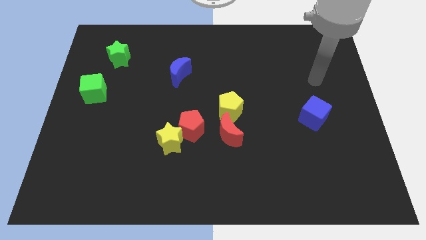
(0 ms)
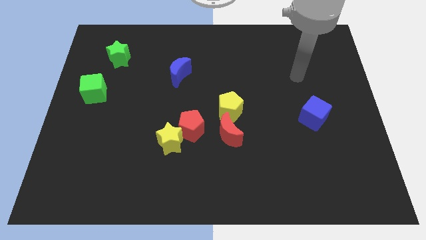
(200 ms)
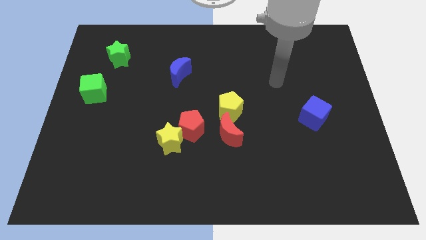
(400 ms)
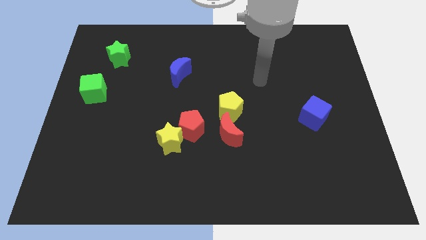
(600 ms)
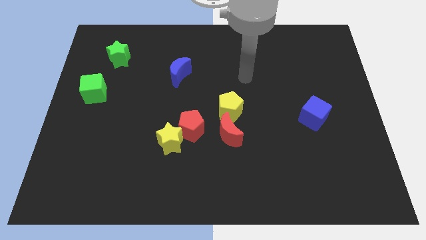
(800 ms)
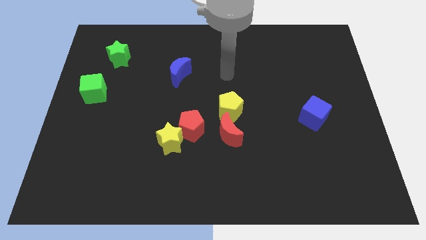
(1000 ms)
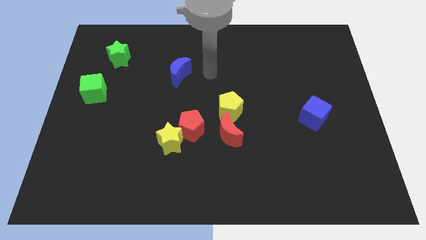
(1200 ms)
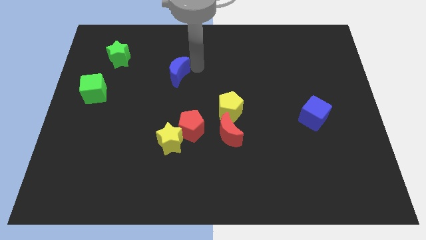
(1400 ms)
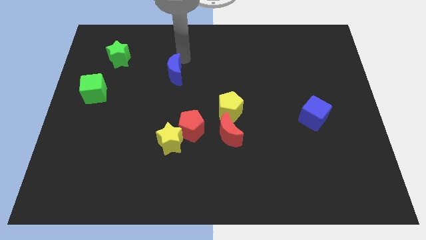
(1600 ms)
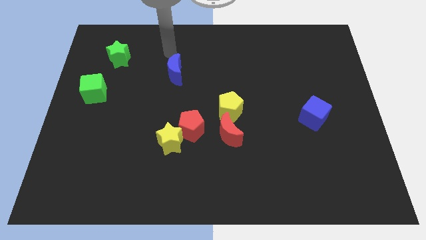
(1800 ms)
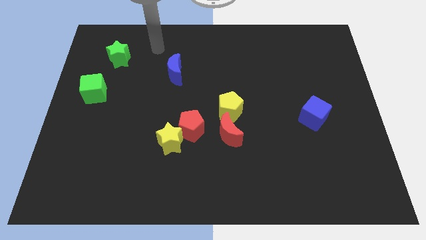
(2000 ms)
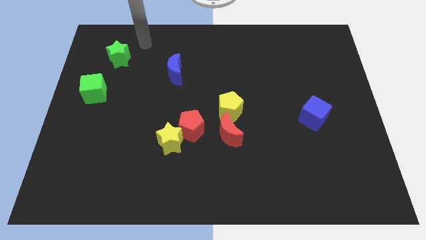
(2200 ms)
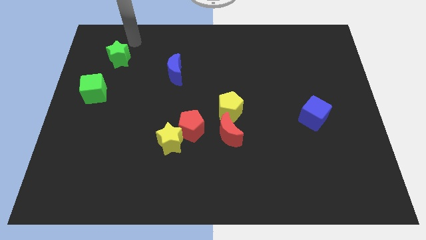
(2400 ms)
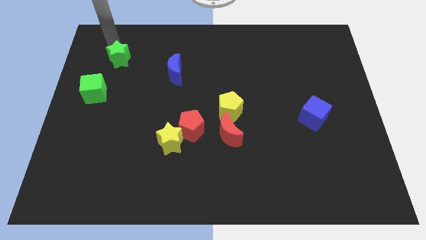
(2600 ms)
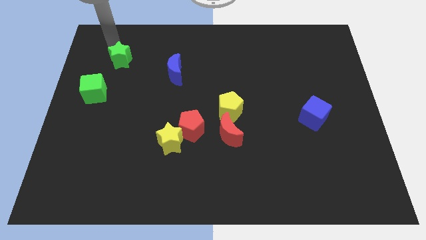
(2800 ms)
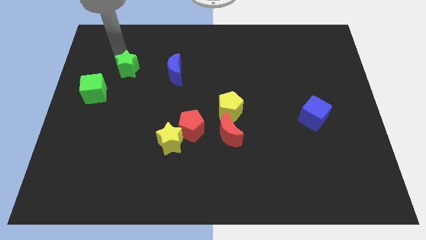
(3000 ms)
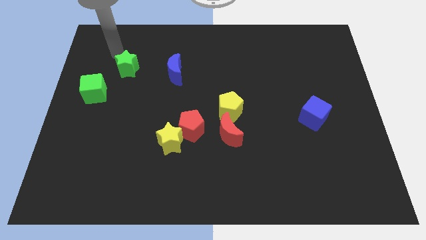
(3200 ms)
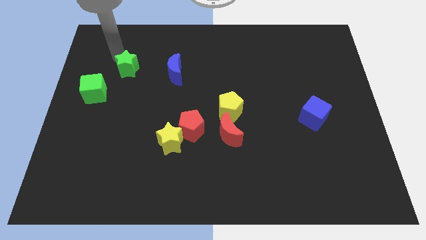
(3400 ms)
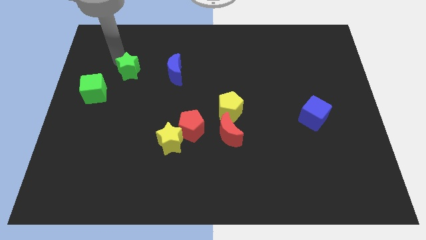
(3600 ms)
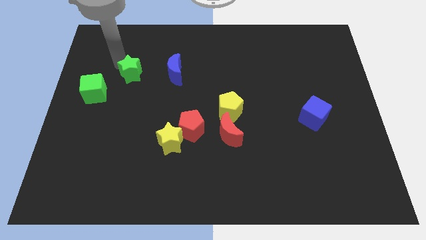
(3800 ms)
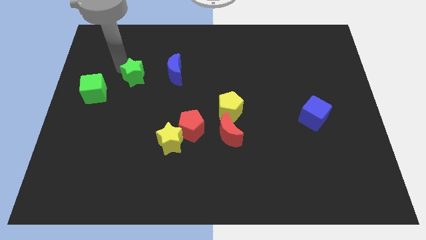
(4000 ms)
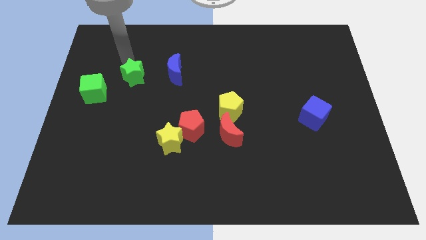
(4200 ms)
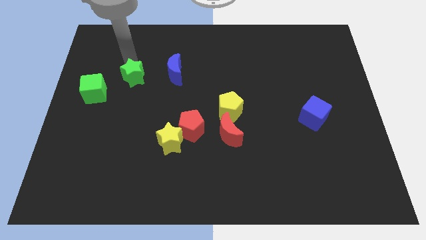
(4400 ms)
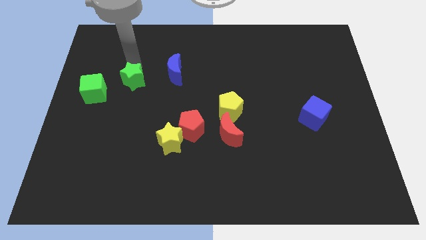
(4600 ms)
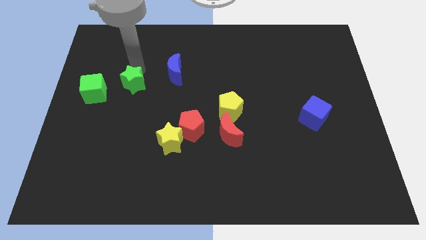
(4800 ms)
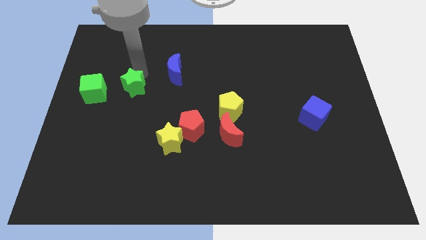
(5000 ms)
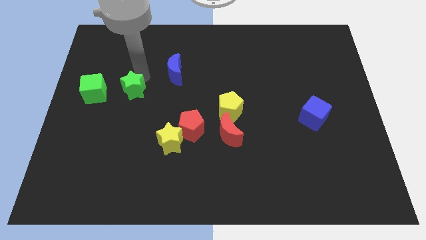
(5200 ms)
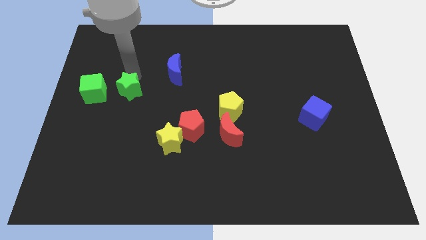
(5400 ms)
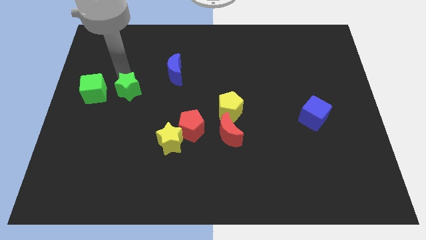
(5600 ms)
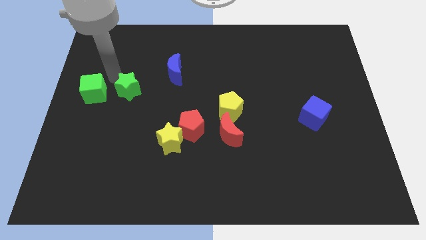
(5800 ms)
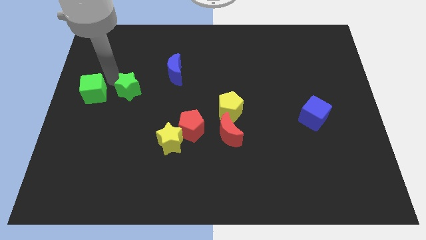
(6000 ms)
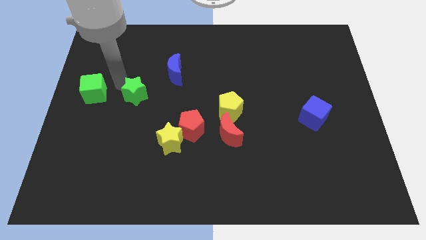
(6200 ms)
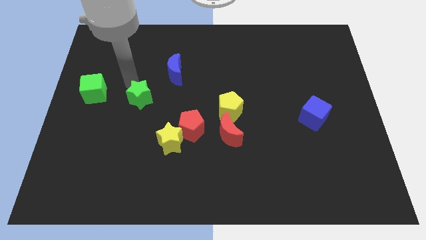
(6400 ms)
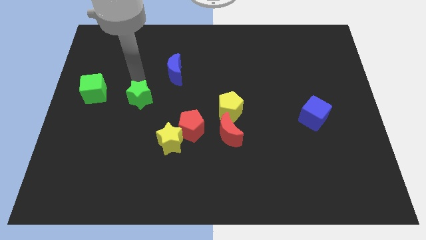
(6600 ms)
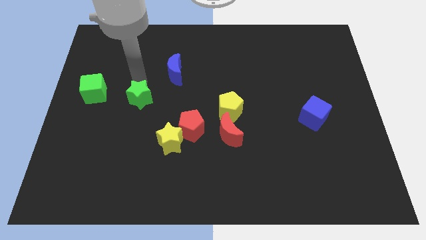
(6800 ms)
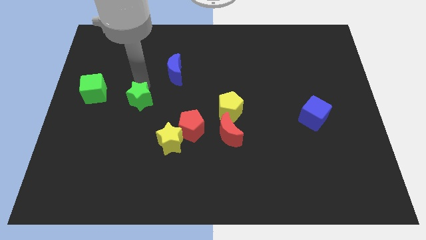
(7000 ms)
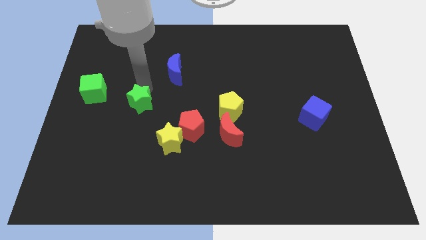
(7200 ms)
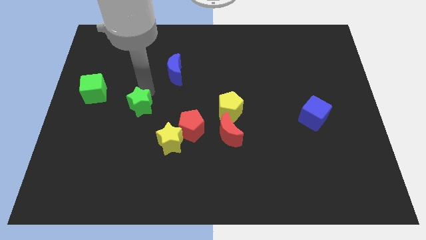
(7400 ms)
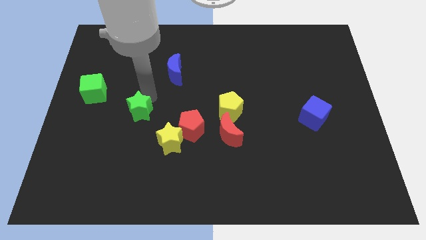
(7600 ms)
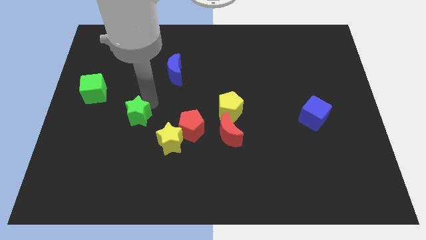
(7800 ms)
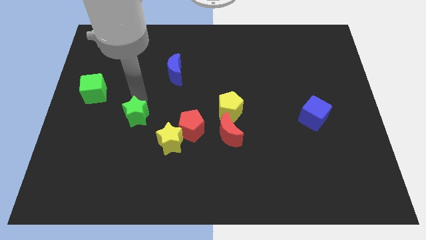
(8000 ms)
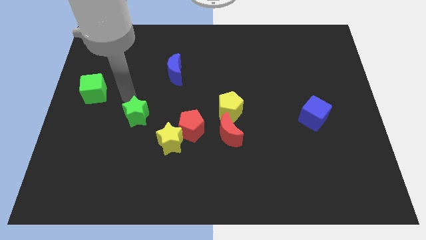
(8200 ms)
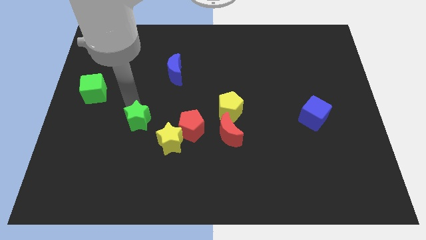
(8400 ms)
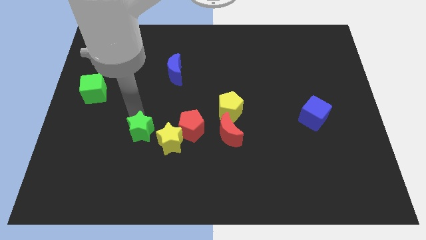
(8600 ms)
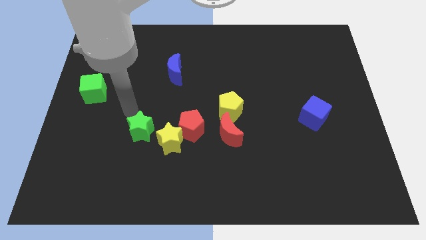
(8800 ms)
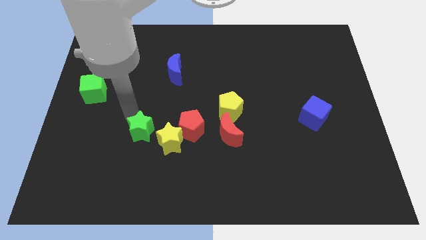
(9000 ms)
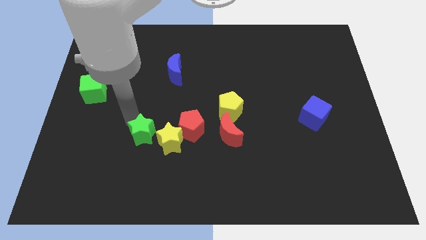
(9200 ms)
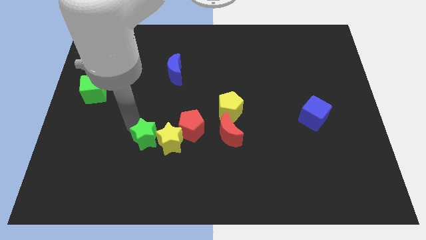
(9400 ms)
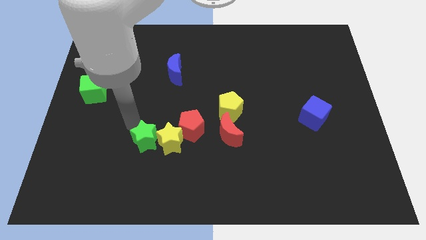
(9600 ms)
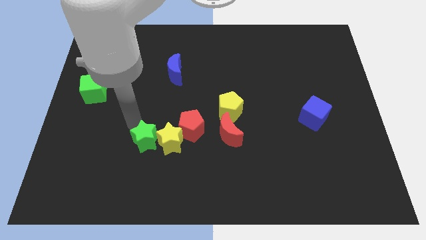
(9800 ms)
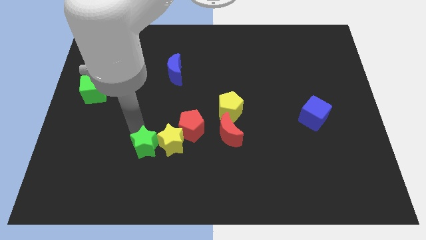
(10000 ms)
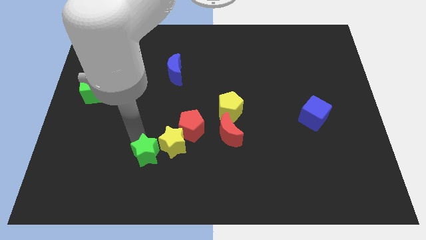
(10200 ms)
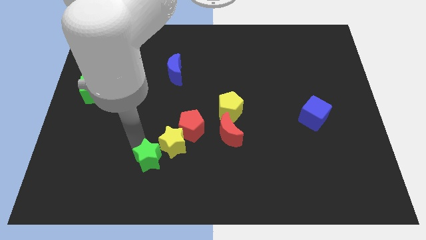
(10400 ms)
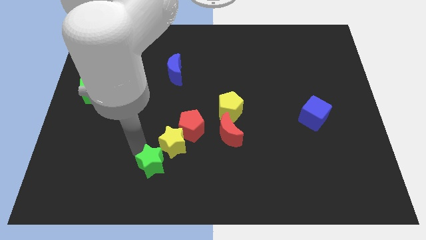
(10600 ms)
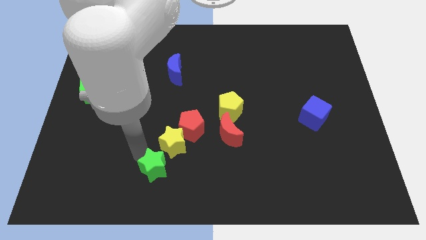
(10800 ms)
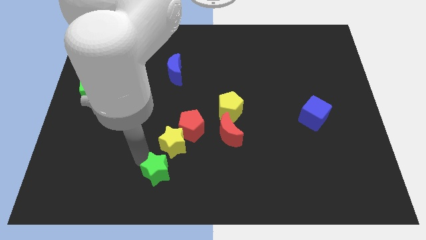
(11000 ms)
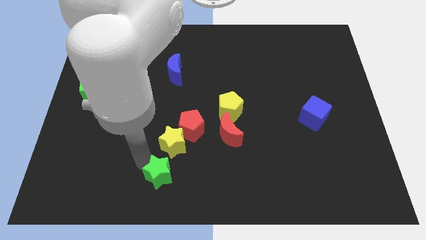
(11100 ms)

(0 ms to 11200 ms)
put the green star to the bottom side
